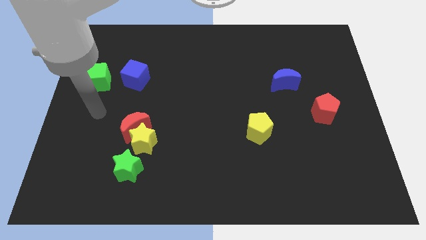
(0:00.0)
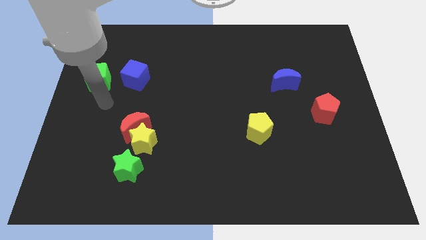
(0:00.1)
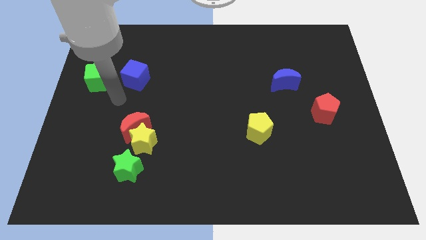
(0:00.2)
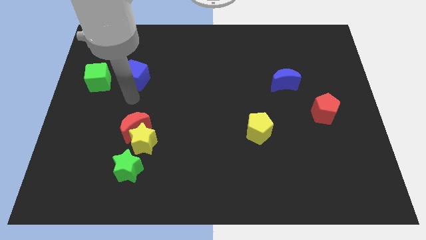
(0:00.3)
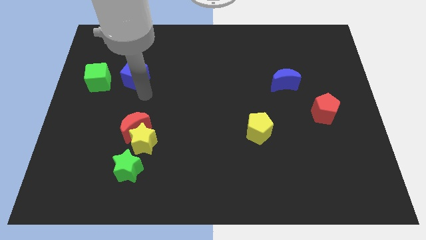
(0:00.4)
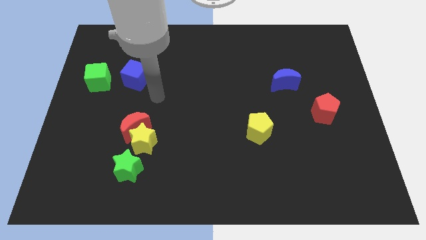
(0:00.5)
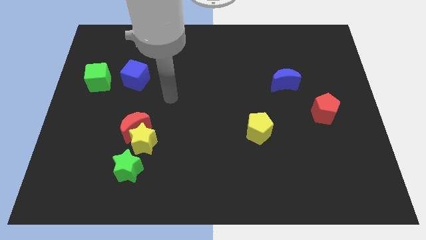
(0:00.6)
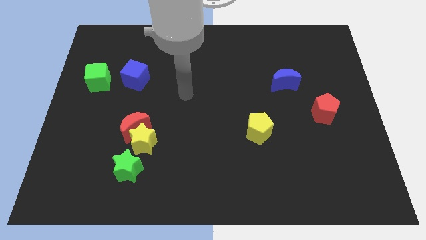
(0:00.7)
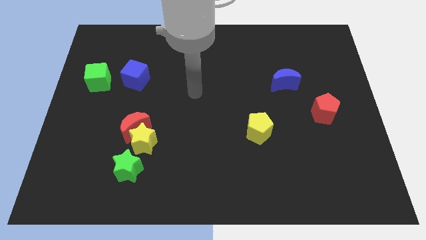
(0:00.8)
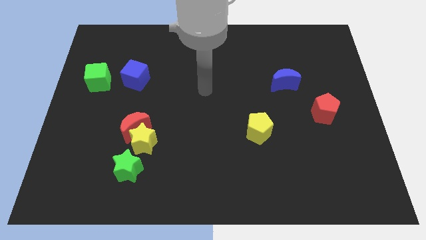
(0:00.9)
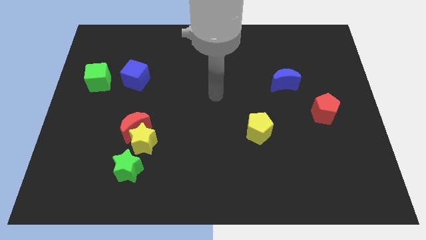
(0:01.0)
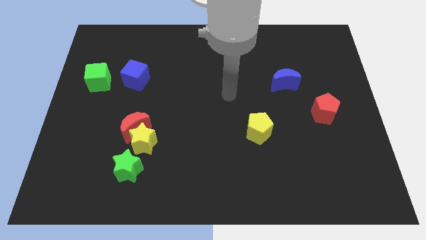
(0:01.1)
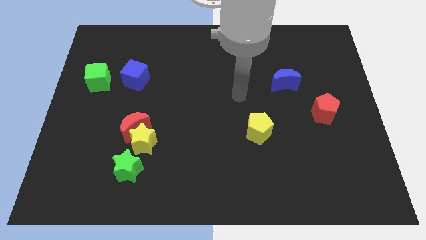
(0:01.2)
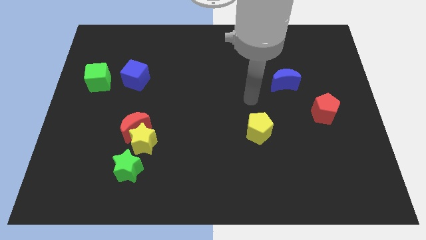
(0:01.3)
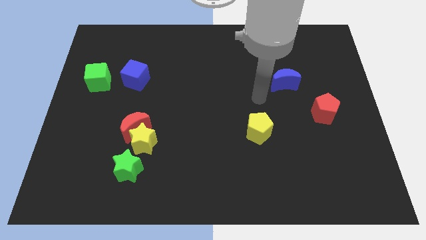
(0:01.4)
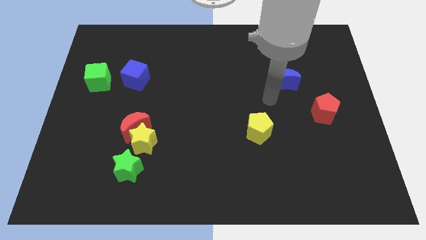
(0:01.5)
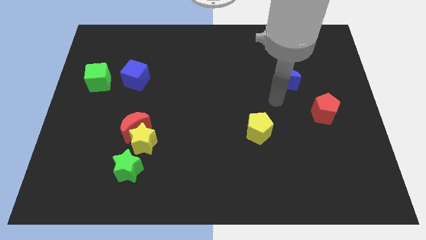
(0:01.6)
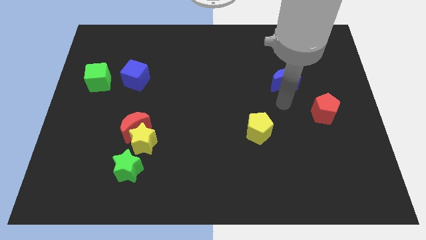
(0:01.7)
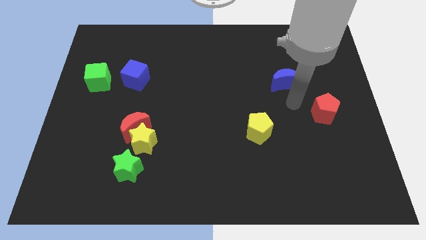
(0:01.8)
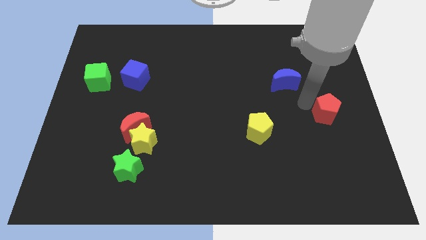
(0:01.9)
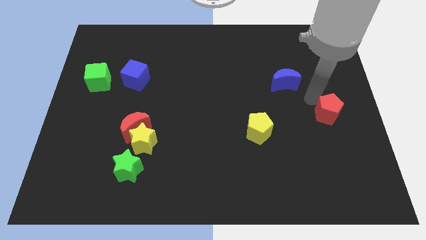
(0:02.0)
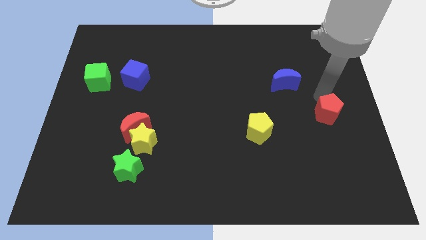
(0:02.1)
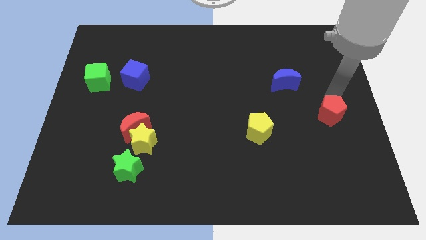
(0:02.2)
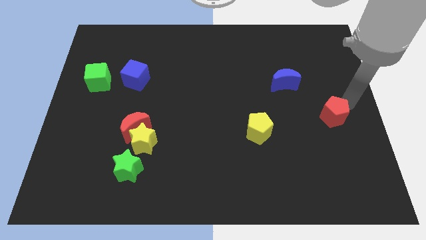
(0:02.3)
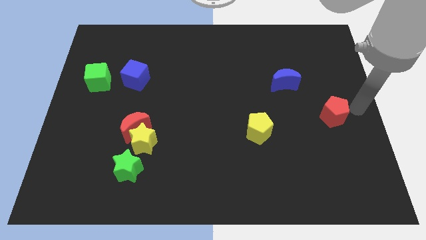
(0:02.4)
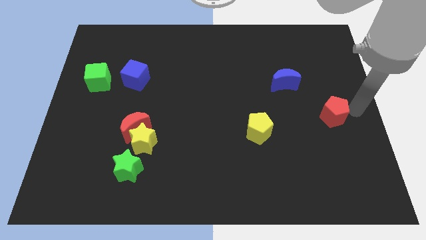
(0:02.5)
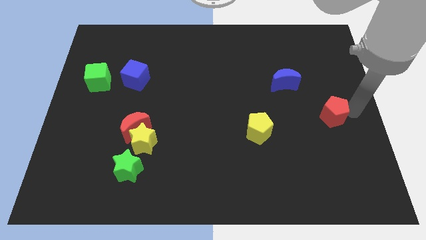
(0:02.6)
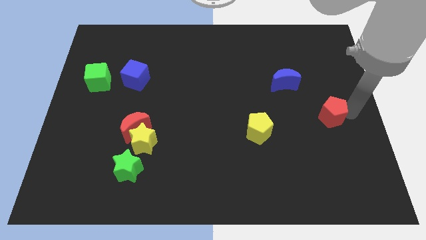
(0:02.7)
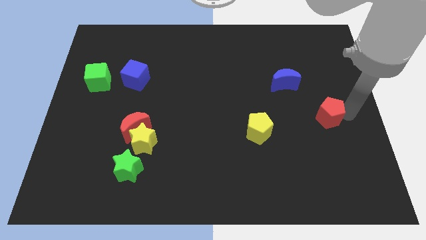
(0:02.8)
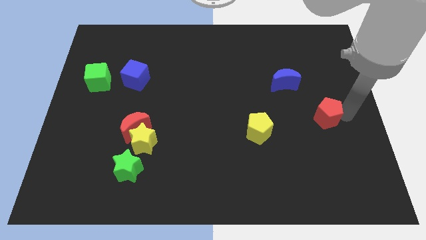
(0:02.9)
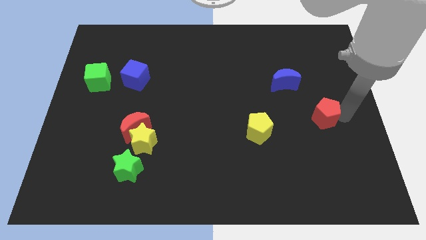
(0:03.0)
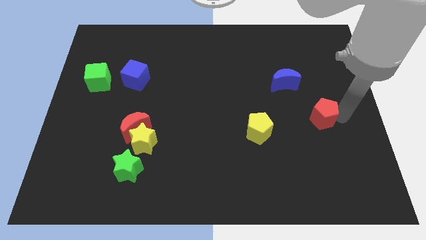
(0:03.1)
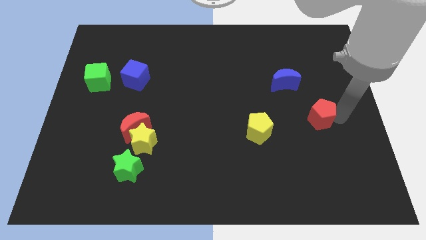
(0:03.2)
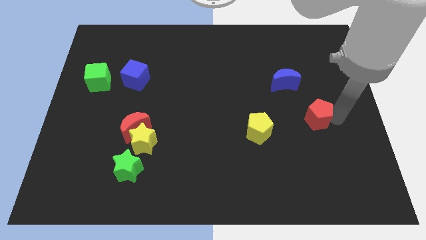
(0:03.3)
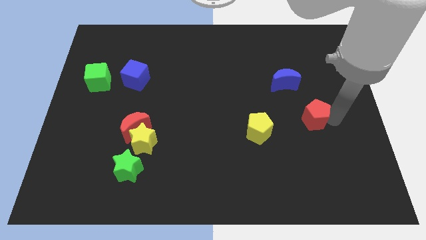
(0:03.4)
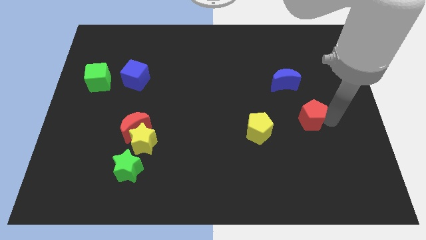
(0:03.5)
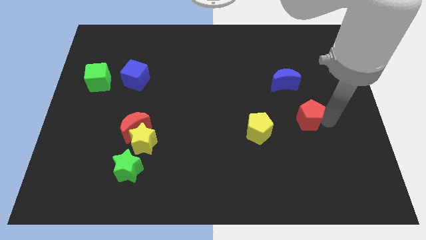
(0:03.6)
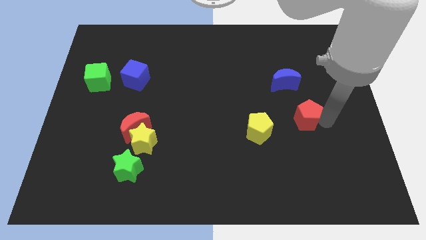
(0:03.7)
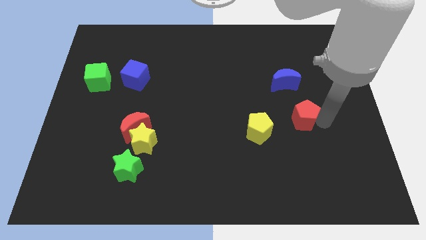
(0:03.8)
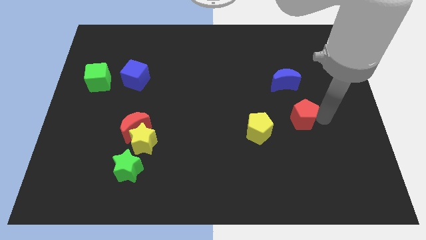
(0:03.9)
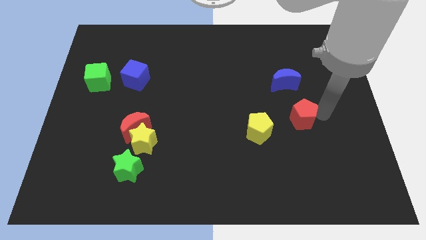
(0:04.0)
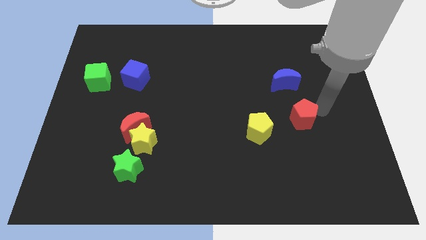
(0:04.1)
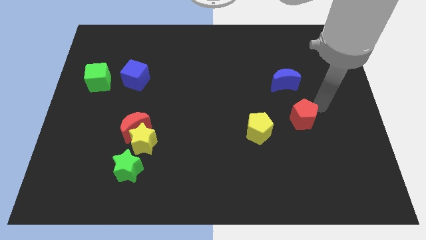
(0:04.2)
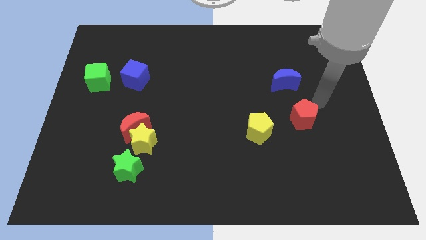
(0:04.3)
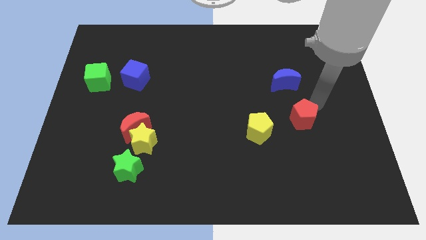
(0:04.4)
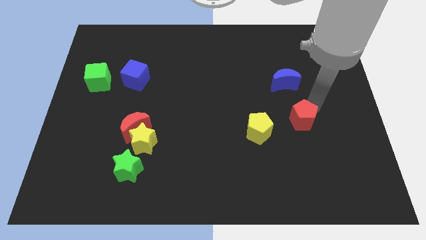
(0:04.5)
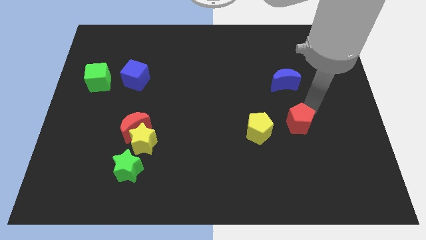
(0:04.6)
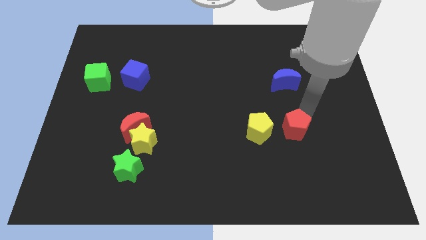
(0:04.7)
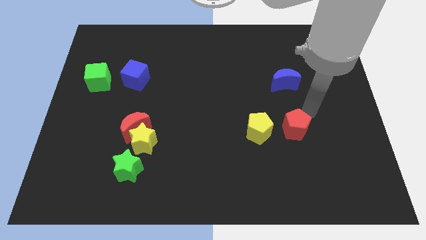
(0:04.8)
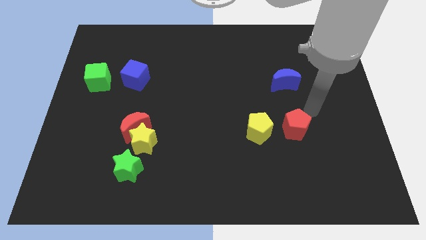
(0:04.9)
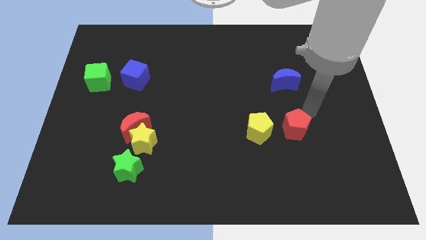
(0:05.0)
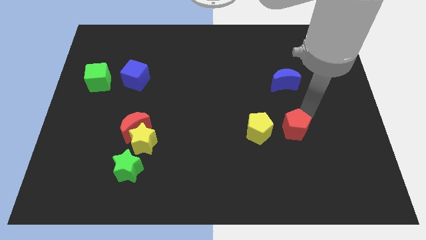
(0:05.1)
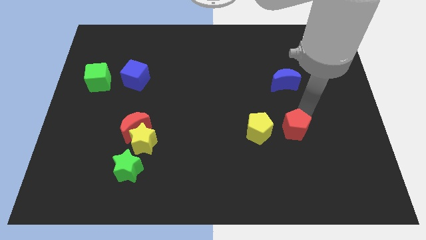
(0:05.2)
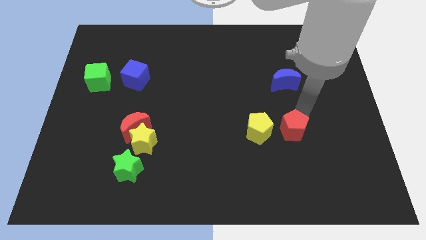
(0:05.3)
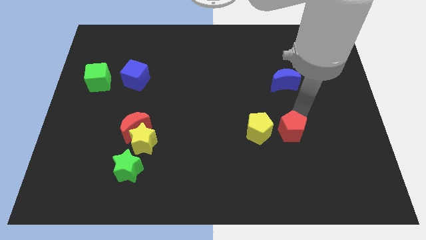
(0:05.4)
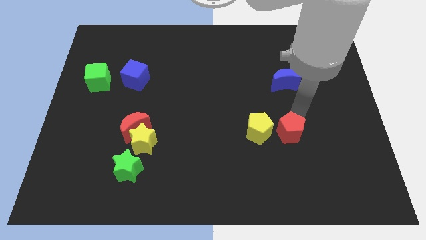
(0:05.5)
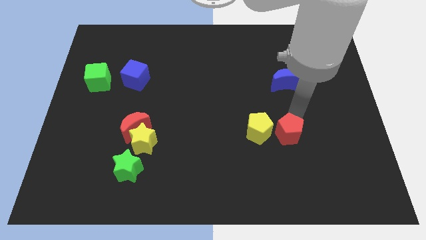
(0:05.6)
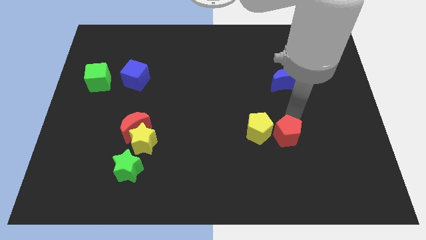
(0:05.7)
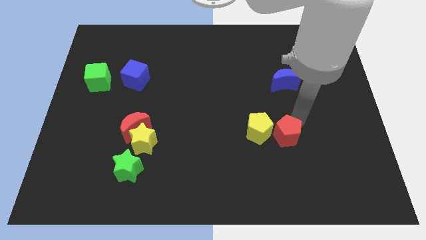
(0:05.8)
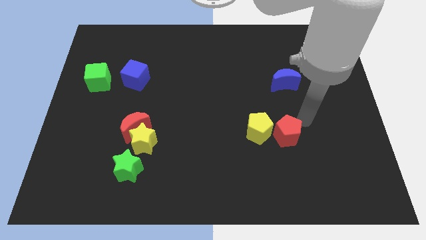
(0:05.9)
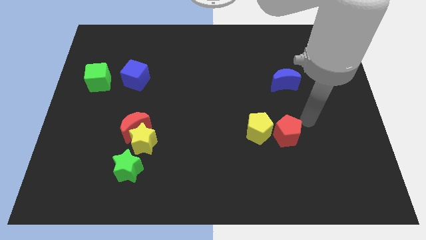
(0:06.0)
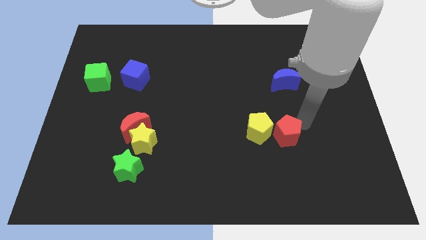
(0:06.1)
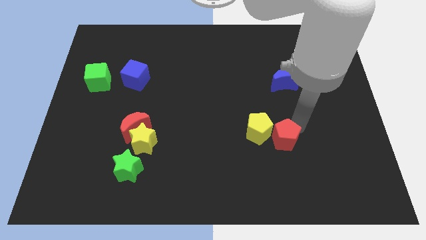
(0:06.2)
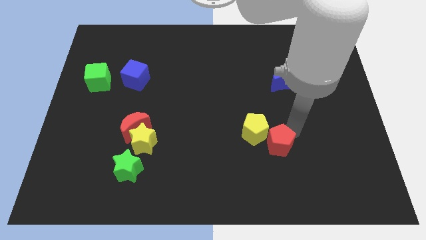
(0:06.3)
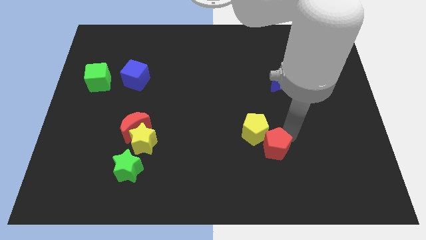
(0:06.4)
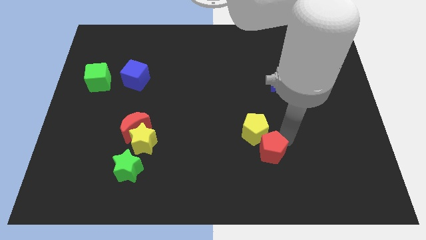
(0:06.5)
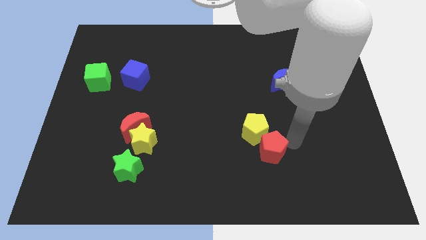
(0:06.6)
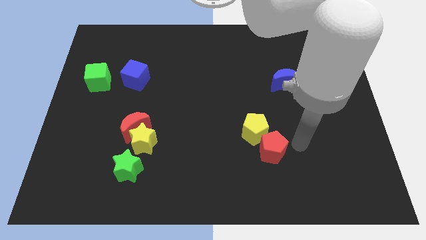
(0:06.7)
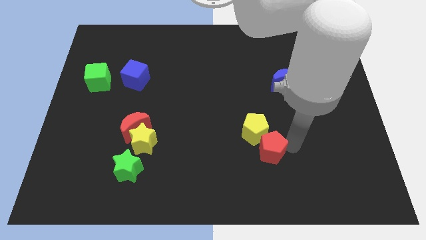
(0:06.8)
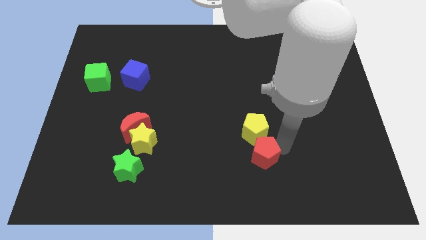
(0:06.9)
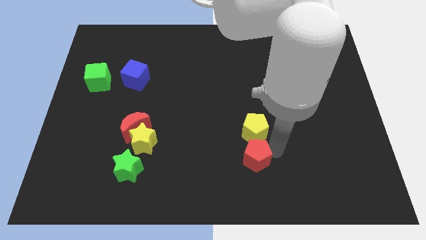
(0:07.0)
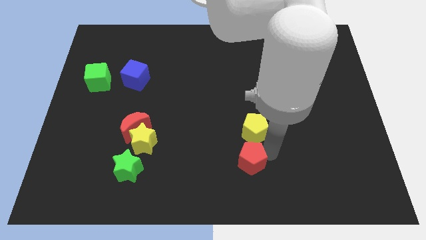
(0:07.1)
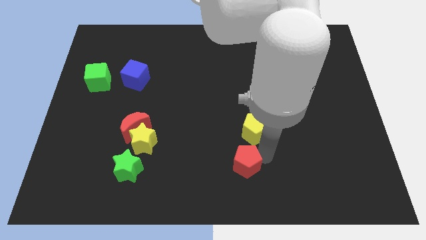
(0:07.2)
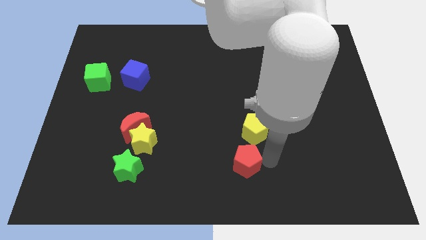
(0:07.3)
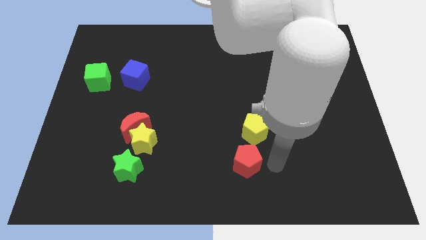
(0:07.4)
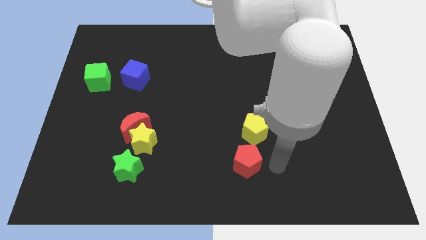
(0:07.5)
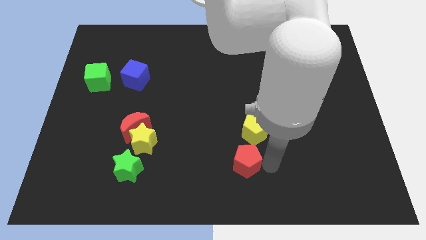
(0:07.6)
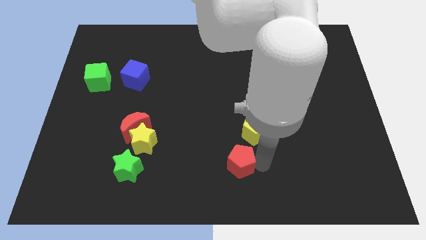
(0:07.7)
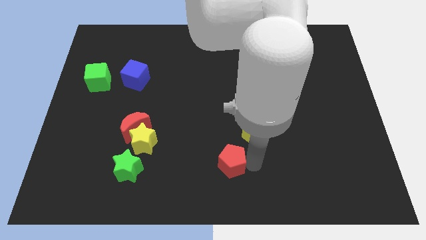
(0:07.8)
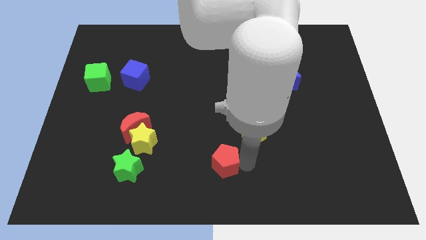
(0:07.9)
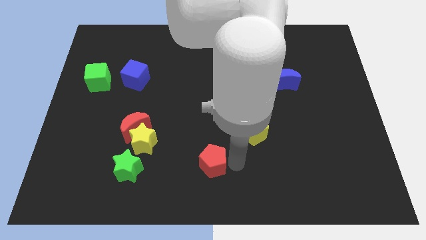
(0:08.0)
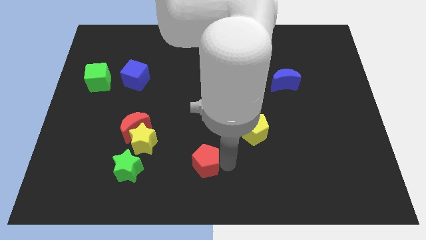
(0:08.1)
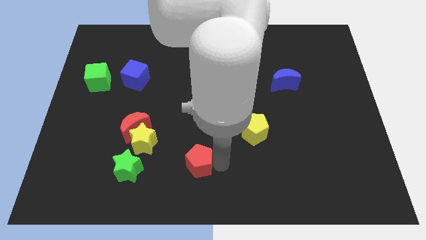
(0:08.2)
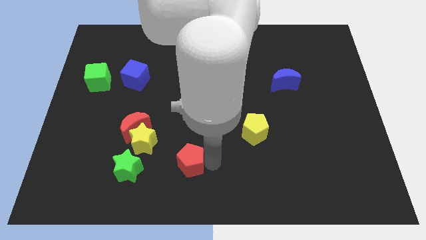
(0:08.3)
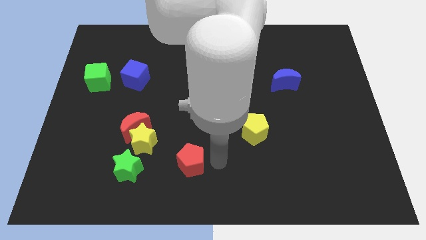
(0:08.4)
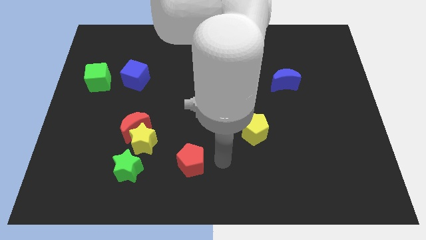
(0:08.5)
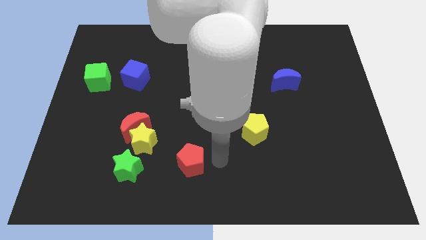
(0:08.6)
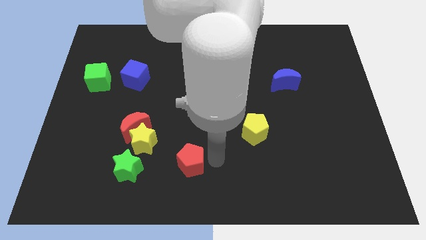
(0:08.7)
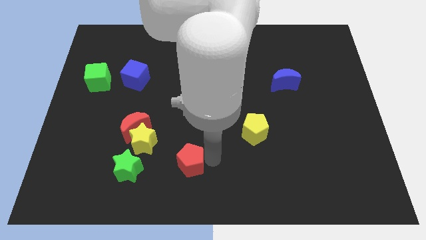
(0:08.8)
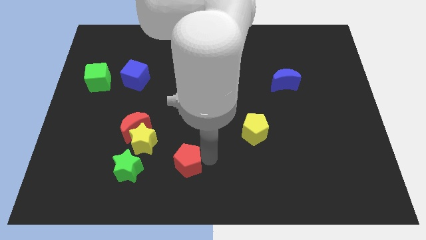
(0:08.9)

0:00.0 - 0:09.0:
push the red pentagon to the bottom right side of the yellow star
